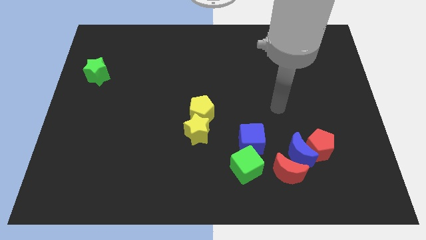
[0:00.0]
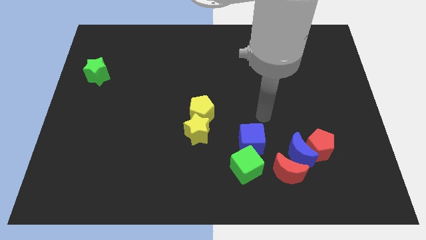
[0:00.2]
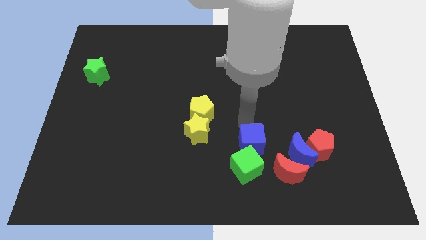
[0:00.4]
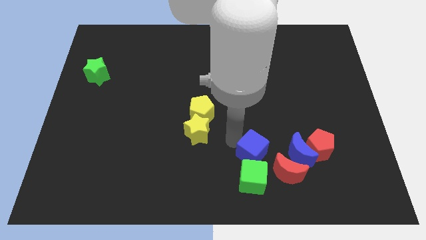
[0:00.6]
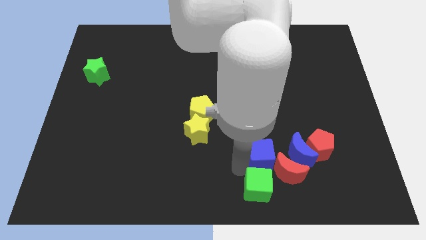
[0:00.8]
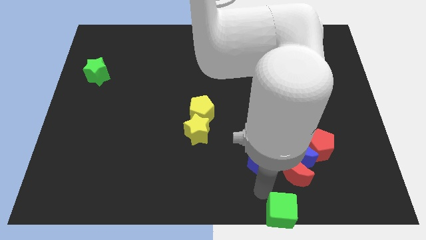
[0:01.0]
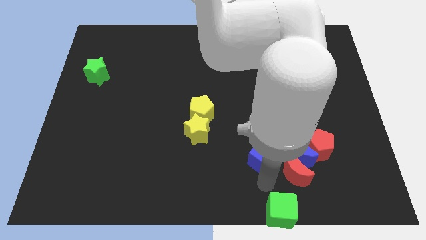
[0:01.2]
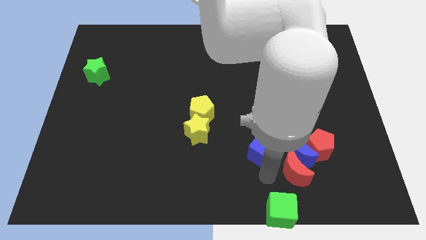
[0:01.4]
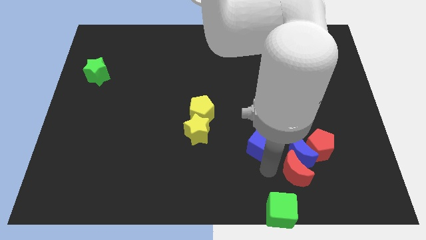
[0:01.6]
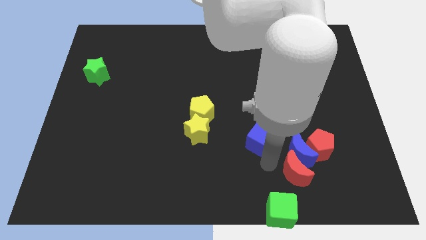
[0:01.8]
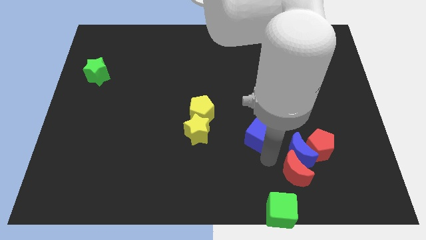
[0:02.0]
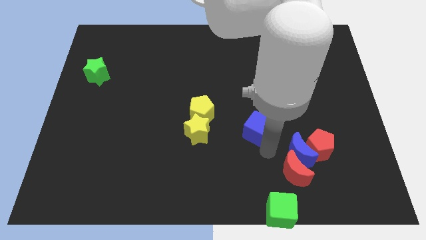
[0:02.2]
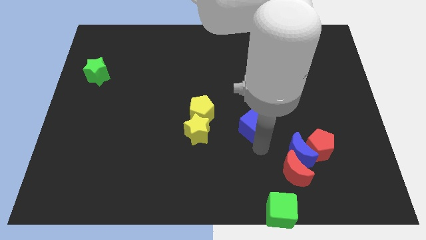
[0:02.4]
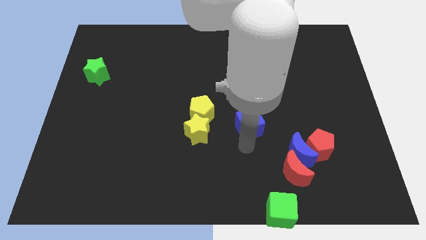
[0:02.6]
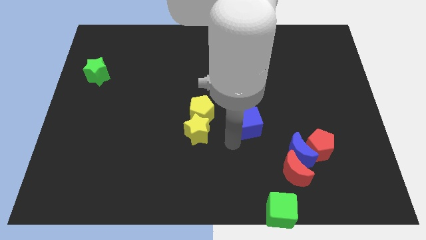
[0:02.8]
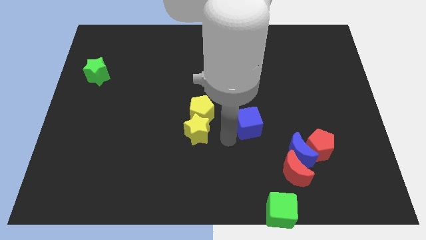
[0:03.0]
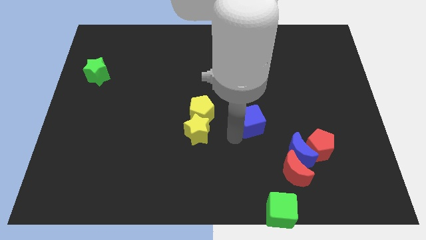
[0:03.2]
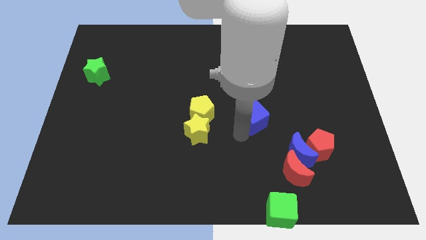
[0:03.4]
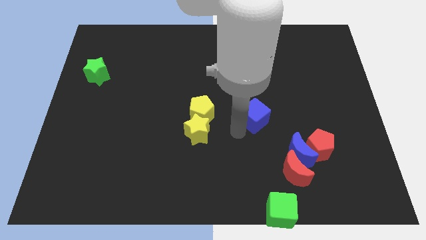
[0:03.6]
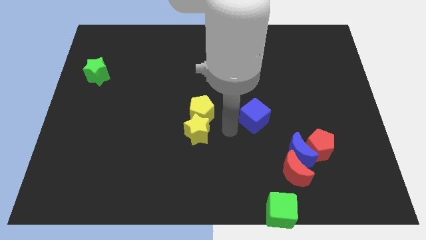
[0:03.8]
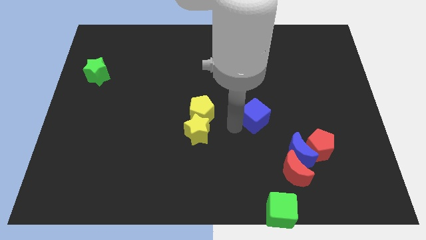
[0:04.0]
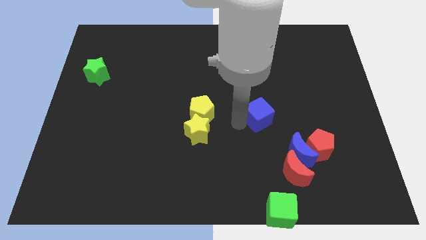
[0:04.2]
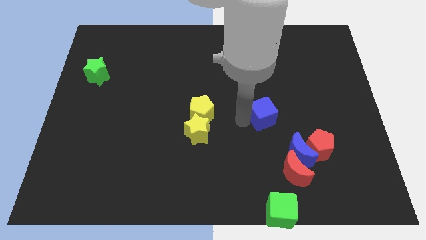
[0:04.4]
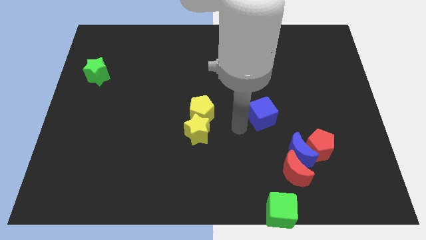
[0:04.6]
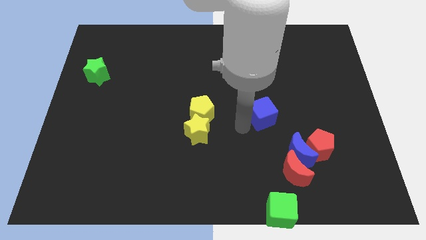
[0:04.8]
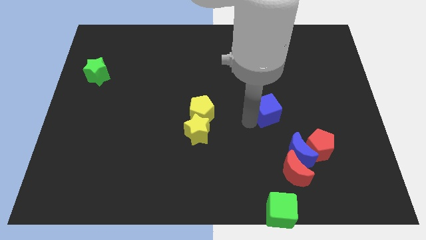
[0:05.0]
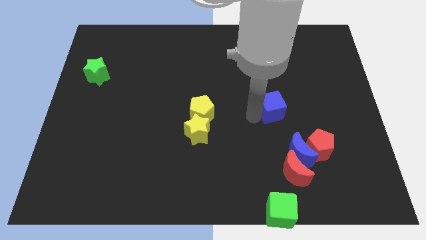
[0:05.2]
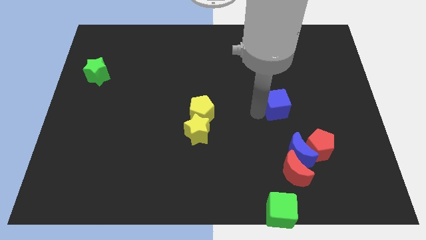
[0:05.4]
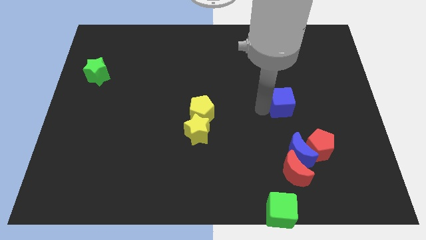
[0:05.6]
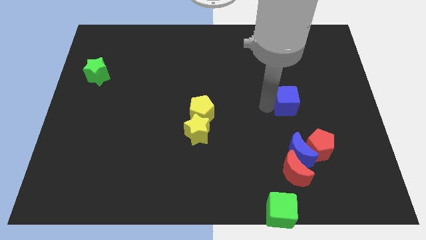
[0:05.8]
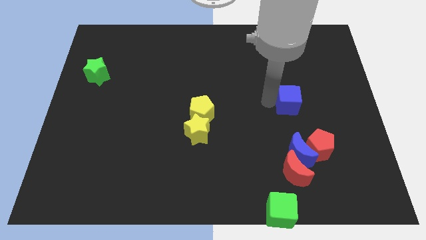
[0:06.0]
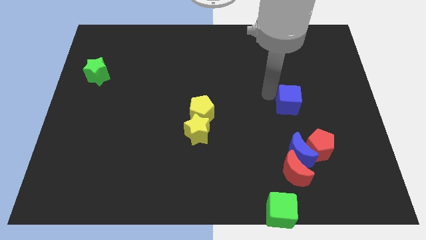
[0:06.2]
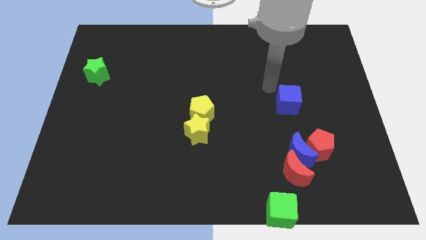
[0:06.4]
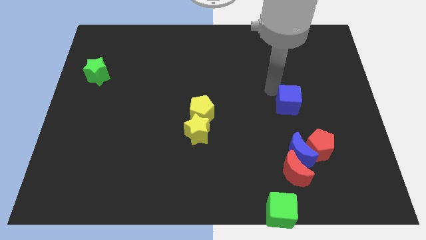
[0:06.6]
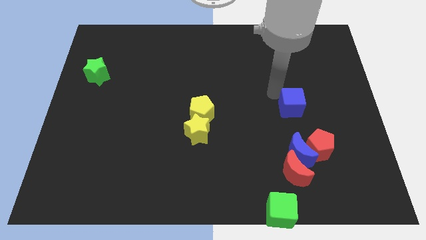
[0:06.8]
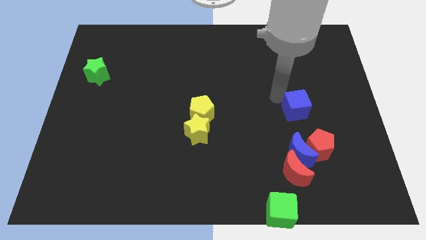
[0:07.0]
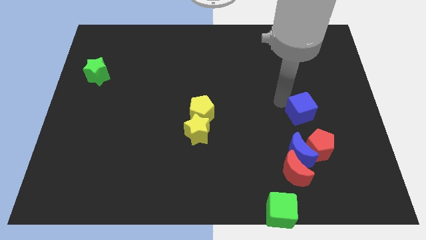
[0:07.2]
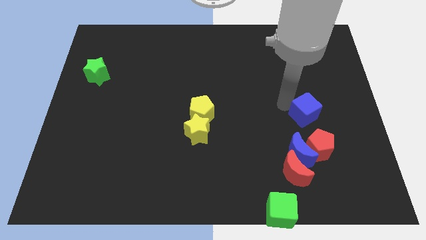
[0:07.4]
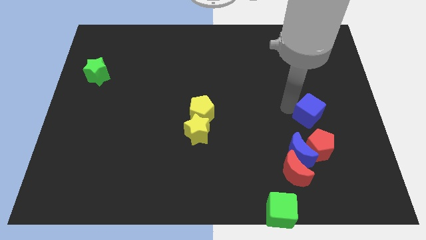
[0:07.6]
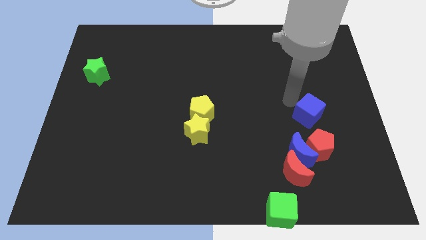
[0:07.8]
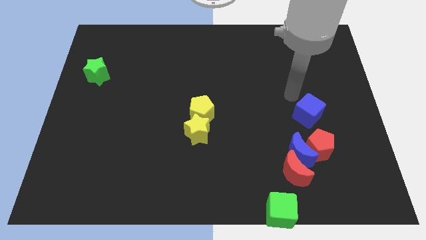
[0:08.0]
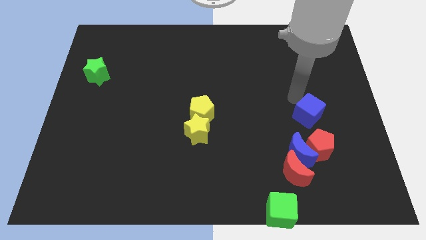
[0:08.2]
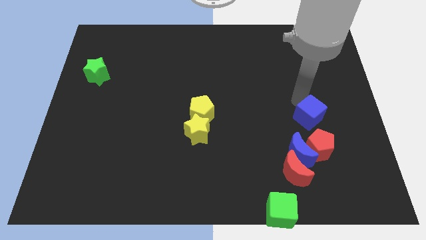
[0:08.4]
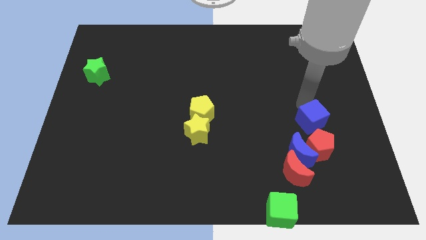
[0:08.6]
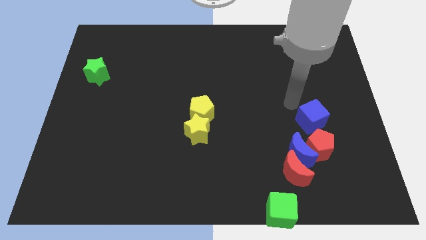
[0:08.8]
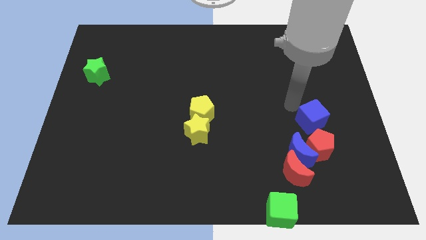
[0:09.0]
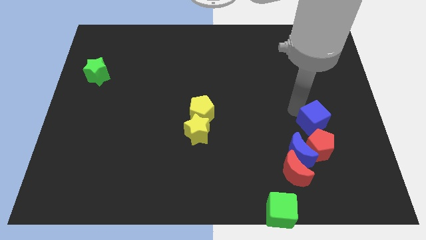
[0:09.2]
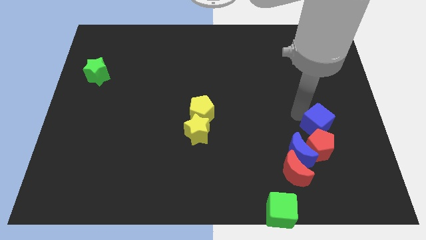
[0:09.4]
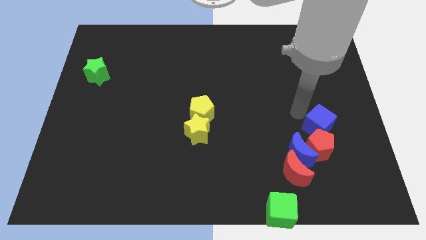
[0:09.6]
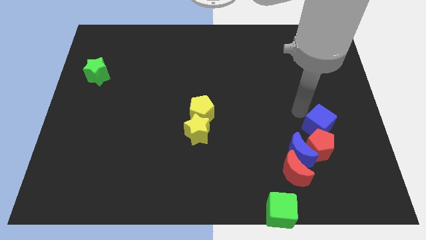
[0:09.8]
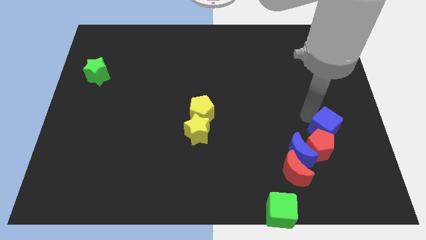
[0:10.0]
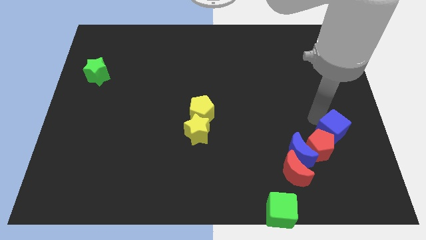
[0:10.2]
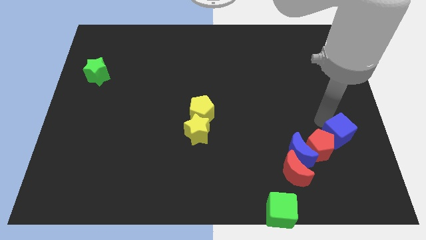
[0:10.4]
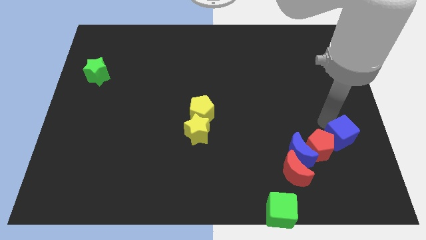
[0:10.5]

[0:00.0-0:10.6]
push the blue cube to the right side of the blue moon

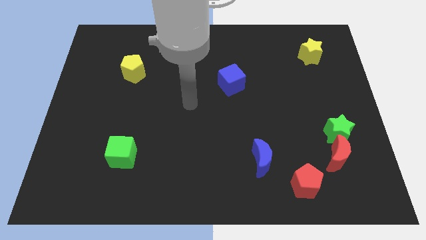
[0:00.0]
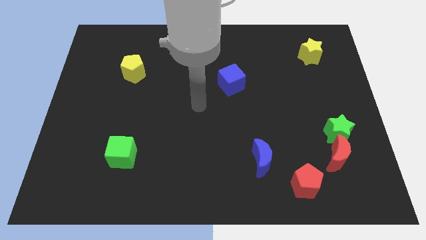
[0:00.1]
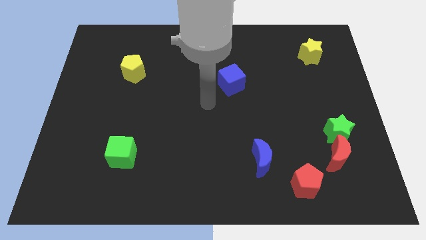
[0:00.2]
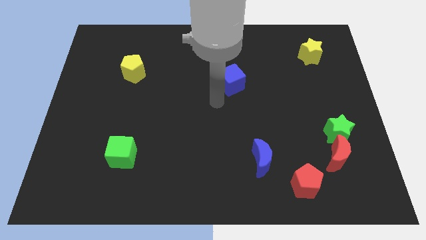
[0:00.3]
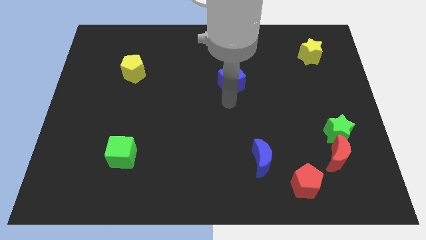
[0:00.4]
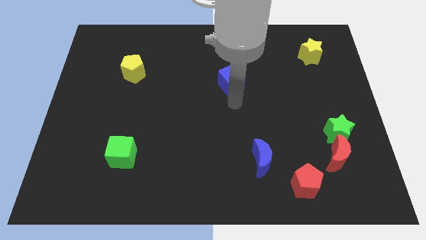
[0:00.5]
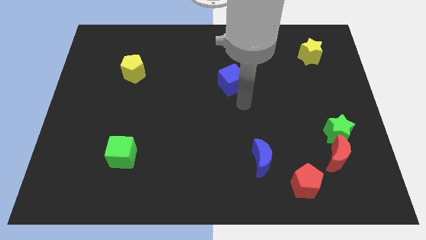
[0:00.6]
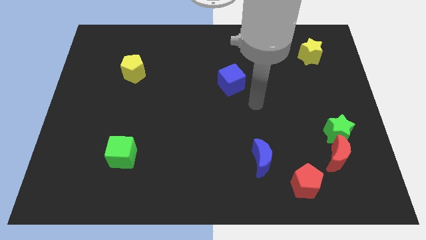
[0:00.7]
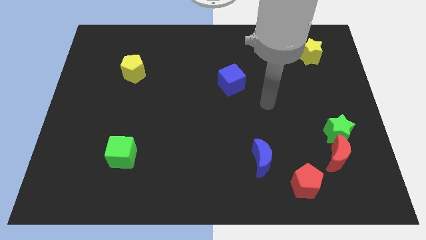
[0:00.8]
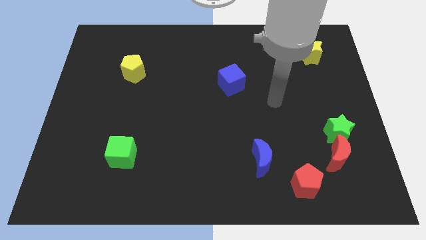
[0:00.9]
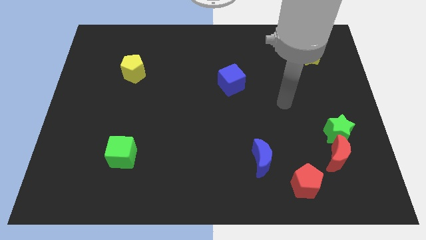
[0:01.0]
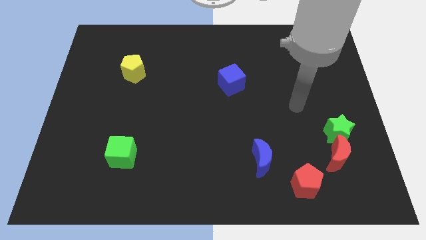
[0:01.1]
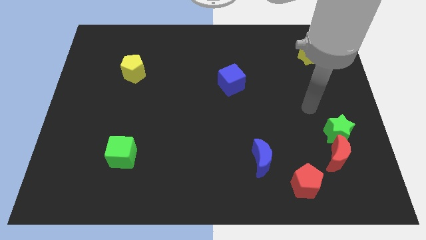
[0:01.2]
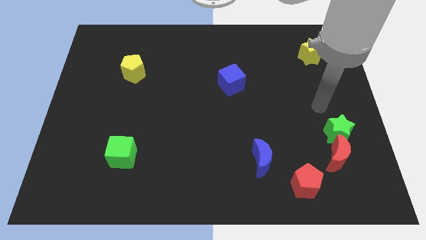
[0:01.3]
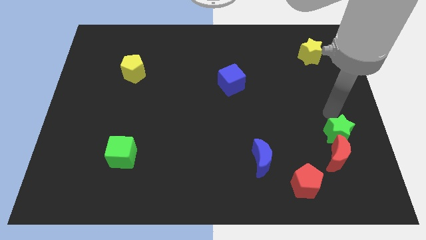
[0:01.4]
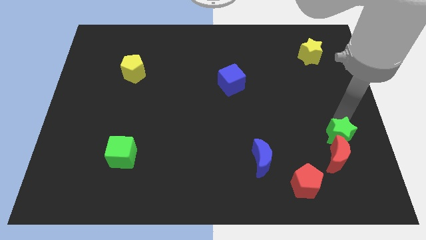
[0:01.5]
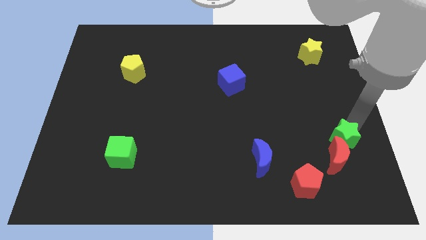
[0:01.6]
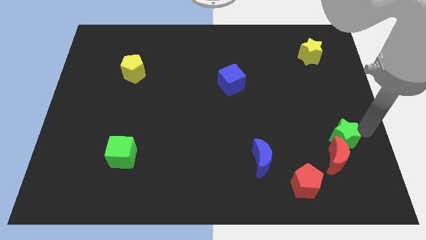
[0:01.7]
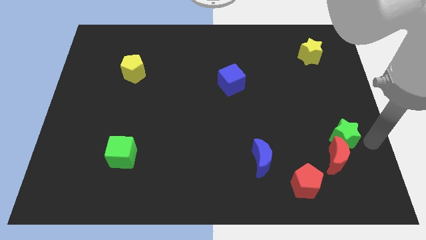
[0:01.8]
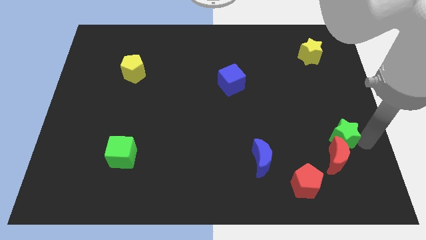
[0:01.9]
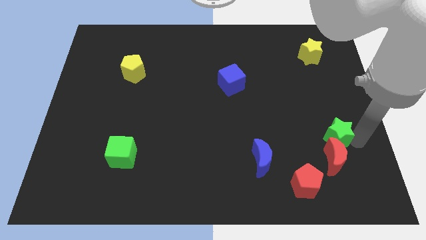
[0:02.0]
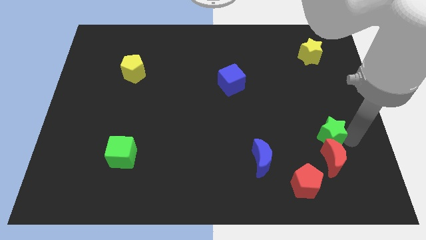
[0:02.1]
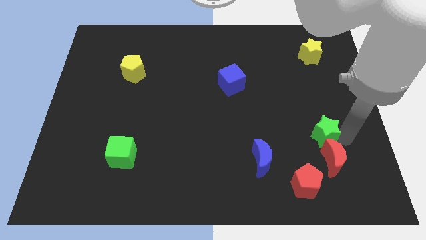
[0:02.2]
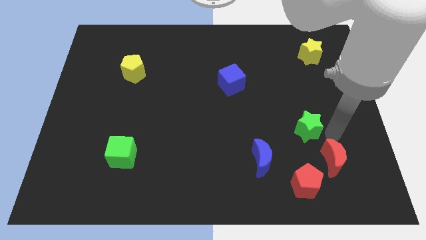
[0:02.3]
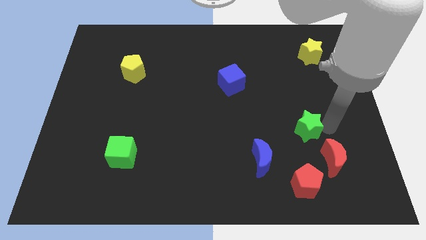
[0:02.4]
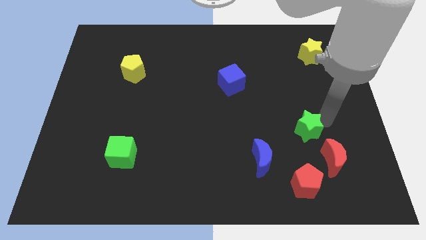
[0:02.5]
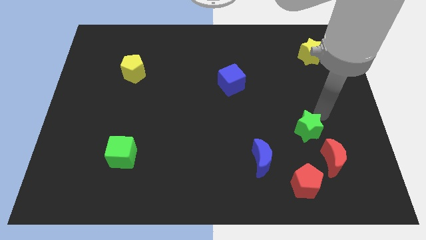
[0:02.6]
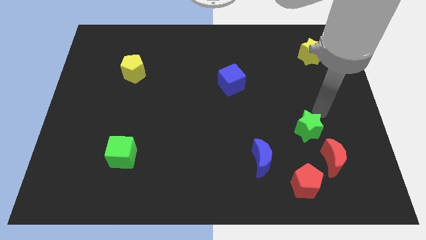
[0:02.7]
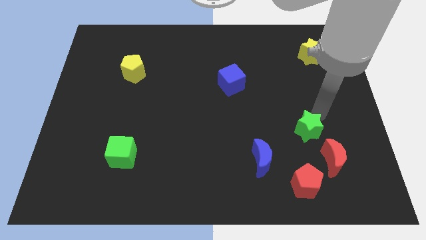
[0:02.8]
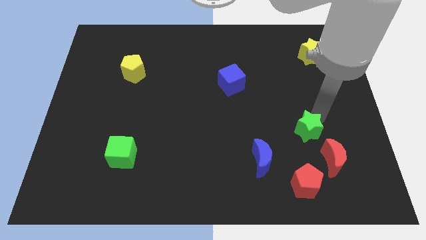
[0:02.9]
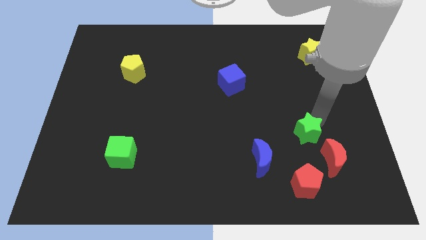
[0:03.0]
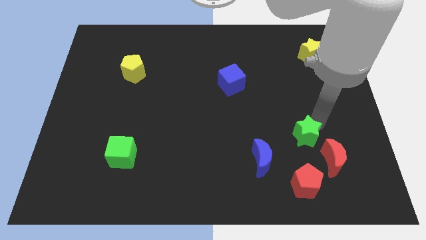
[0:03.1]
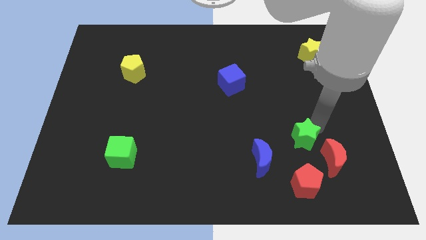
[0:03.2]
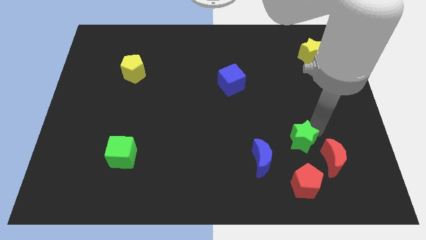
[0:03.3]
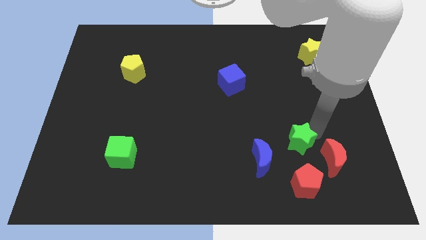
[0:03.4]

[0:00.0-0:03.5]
push the green star to the left of the red moon
